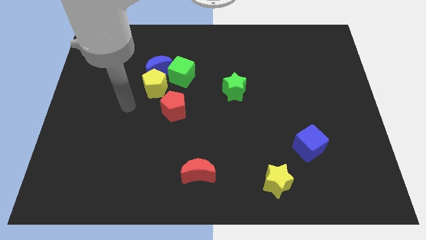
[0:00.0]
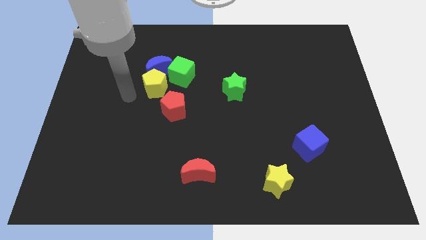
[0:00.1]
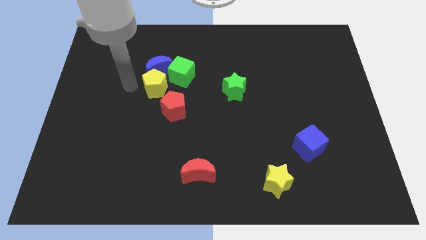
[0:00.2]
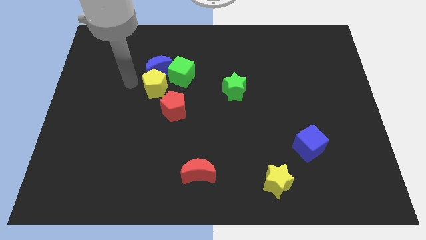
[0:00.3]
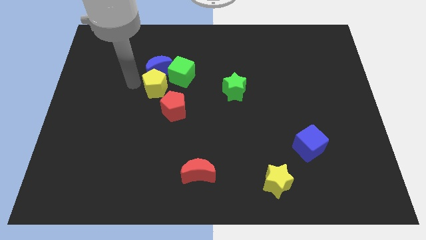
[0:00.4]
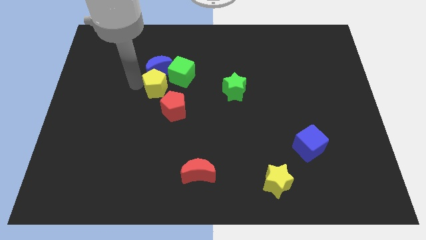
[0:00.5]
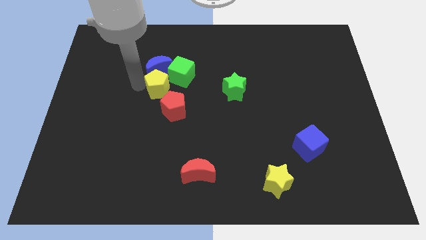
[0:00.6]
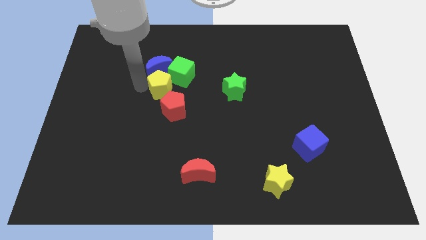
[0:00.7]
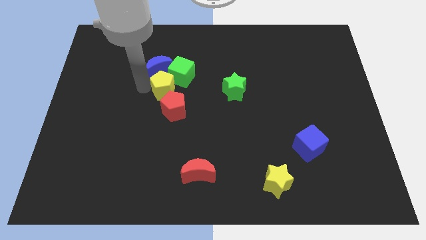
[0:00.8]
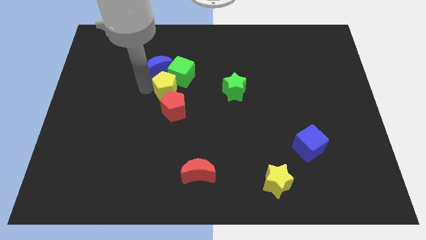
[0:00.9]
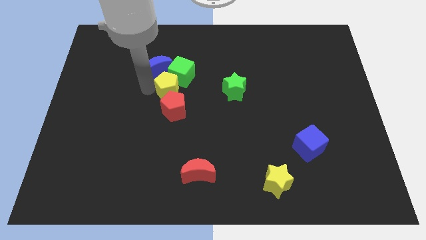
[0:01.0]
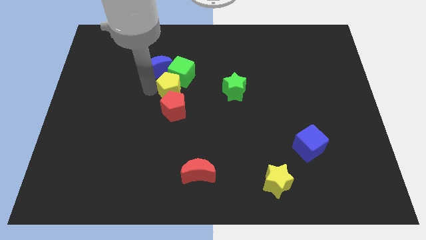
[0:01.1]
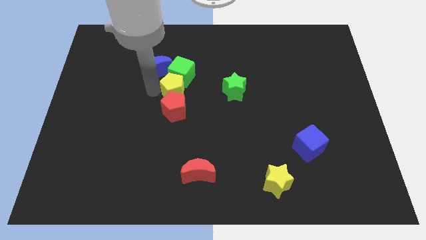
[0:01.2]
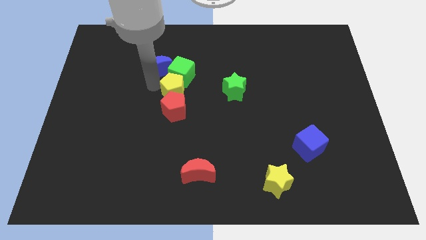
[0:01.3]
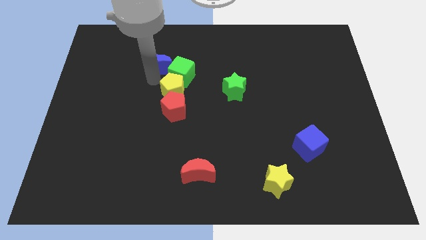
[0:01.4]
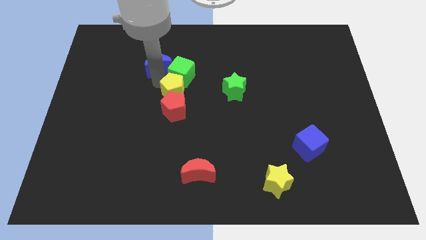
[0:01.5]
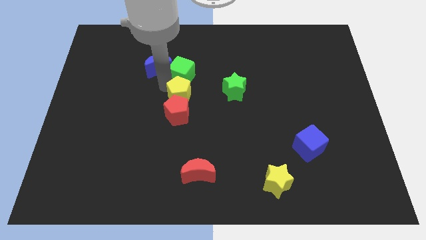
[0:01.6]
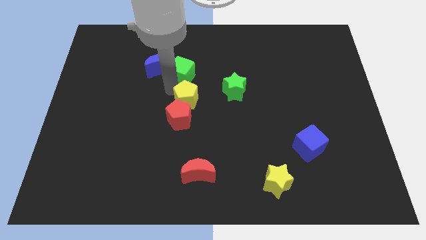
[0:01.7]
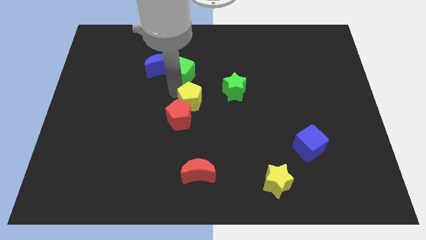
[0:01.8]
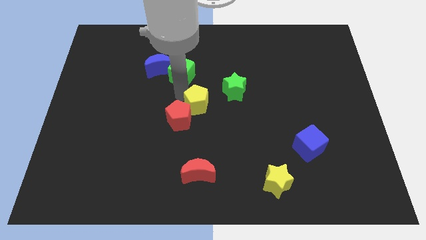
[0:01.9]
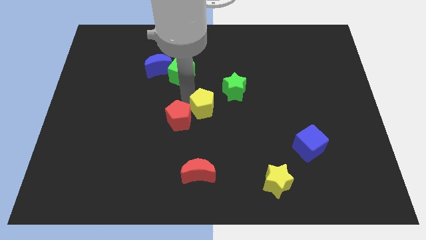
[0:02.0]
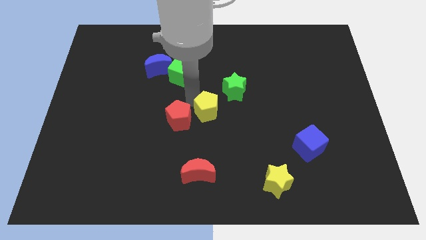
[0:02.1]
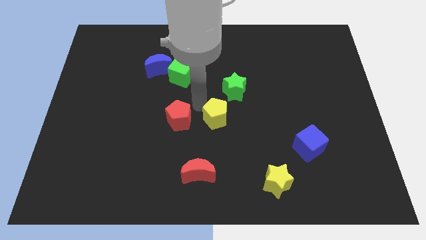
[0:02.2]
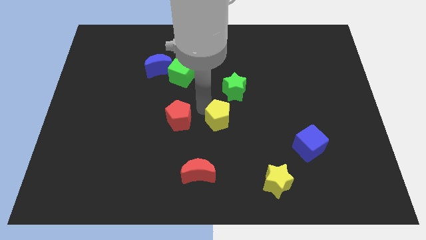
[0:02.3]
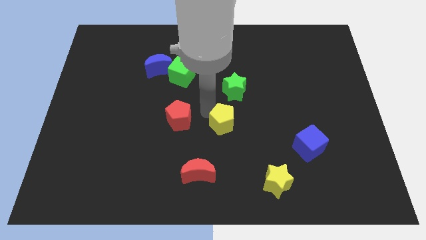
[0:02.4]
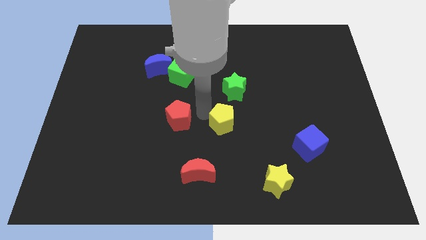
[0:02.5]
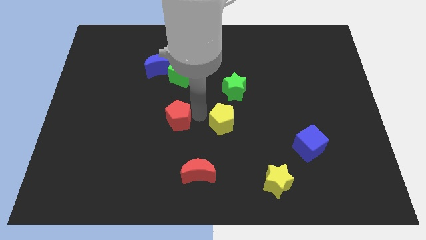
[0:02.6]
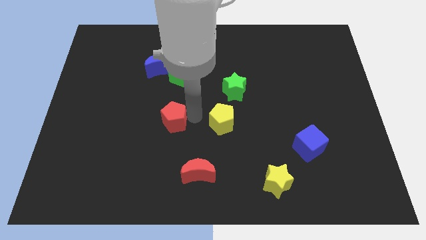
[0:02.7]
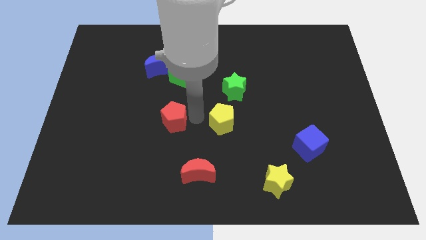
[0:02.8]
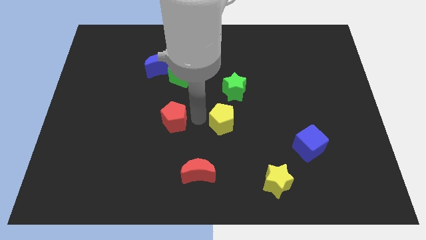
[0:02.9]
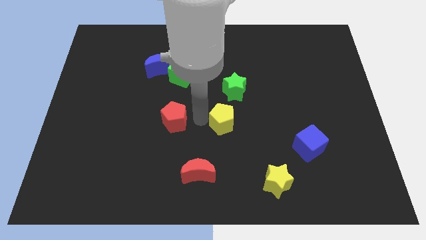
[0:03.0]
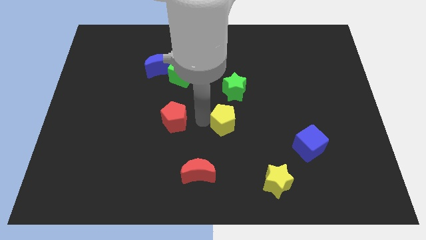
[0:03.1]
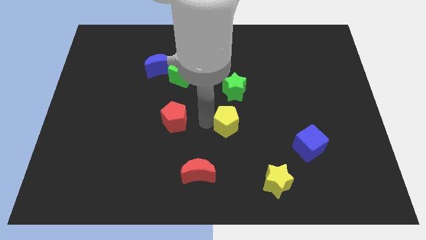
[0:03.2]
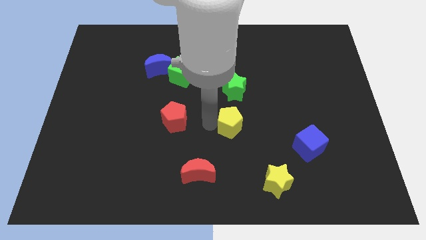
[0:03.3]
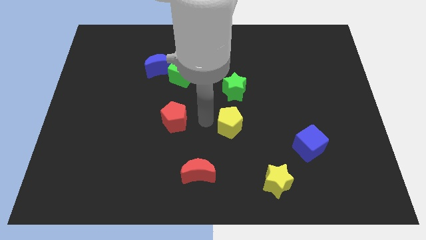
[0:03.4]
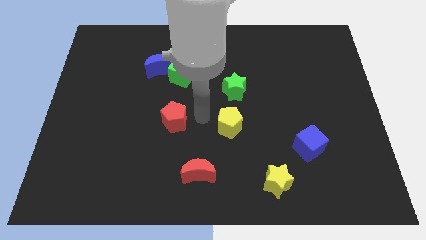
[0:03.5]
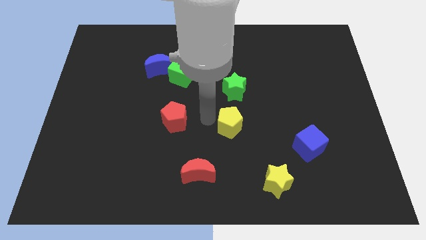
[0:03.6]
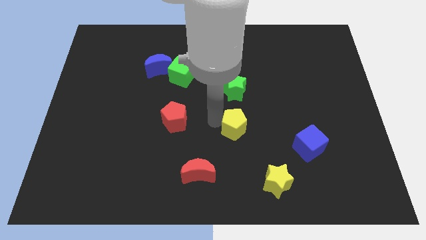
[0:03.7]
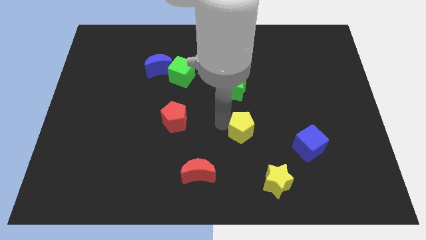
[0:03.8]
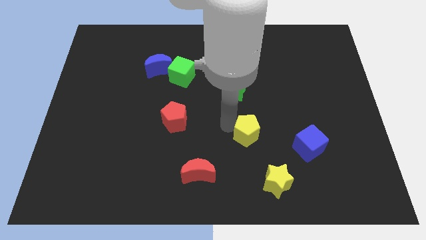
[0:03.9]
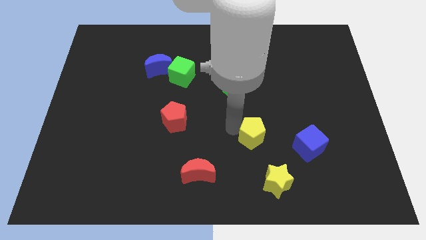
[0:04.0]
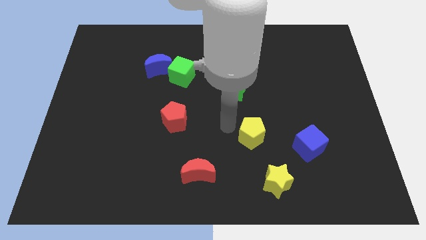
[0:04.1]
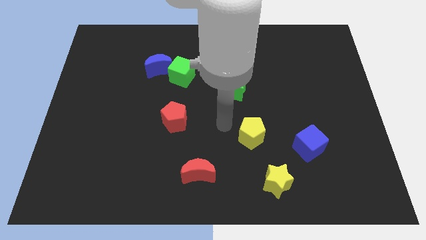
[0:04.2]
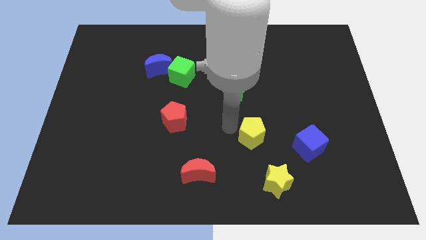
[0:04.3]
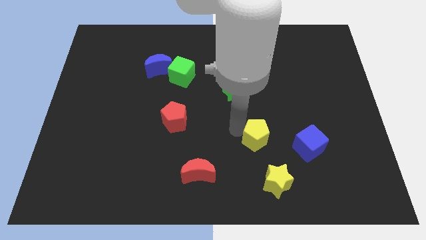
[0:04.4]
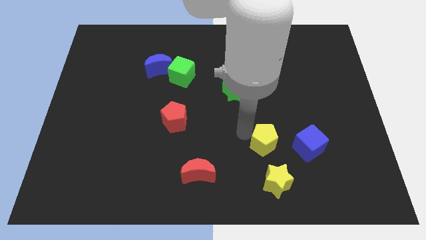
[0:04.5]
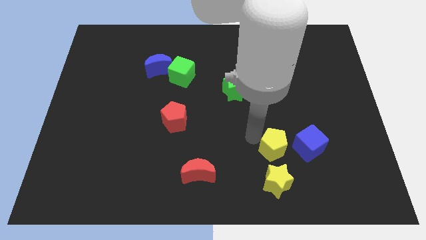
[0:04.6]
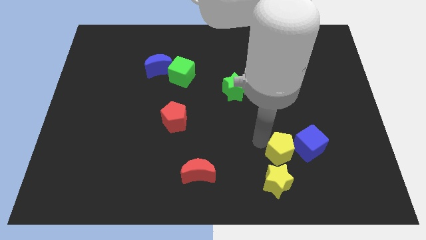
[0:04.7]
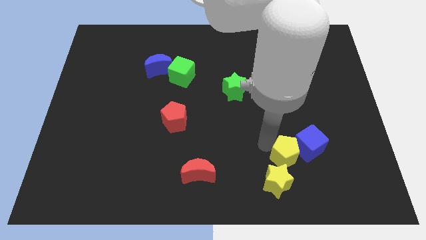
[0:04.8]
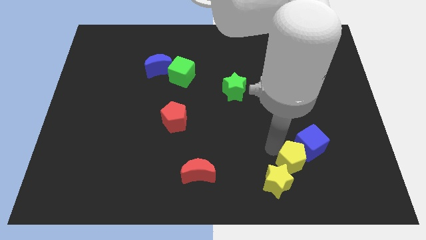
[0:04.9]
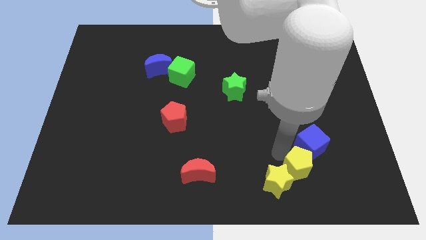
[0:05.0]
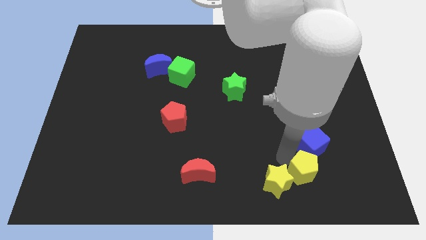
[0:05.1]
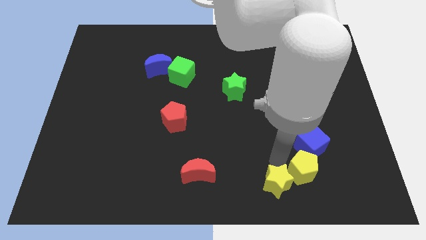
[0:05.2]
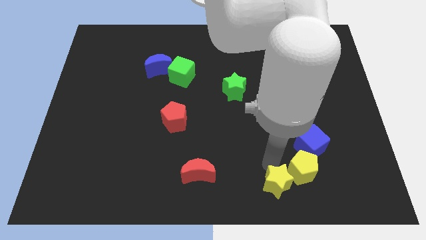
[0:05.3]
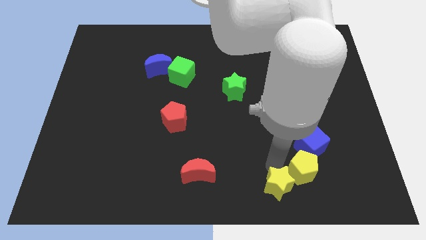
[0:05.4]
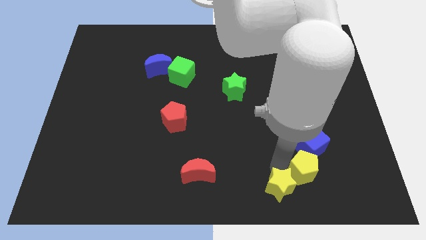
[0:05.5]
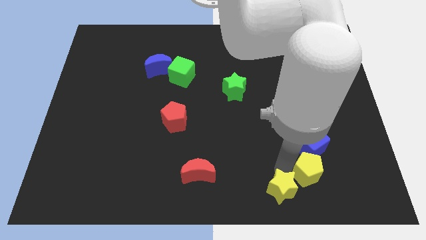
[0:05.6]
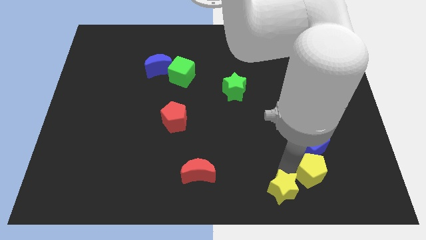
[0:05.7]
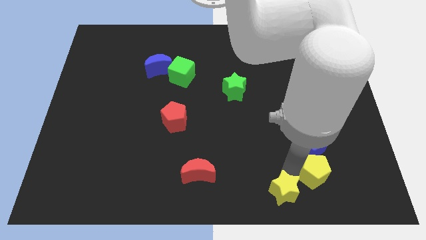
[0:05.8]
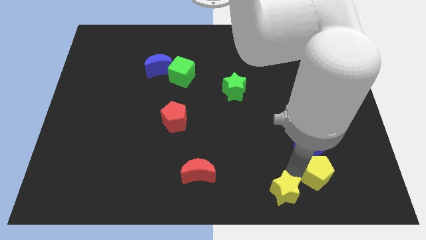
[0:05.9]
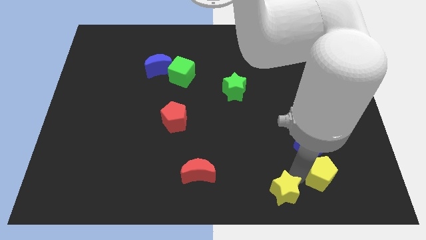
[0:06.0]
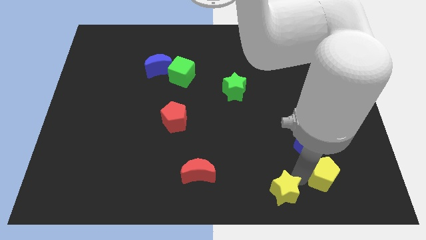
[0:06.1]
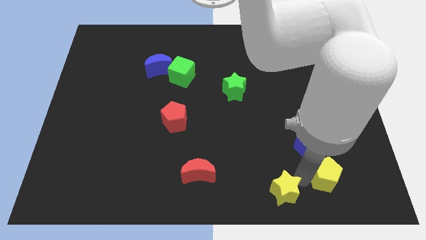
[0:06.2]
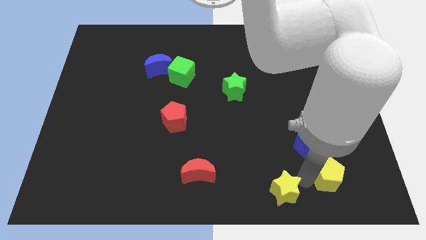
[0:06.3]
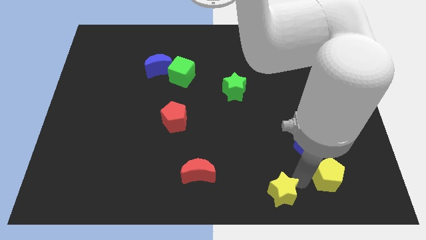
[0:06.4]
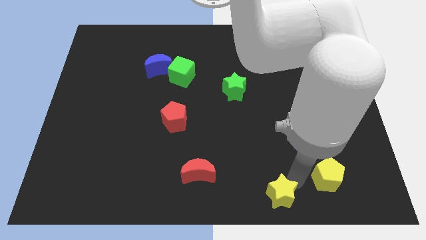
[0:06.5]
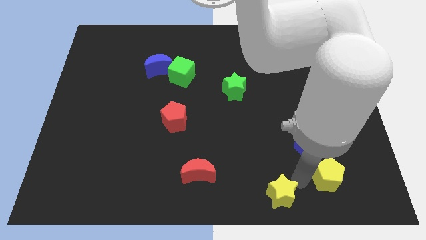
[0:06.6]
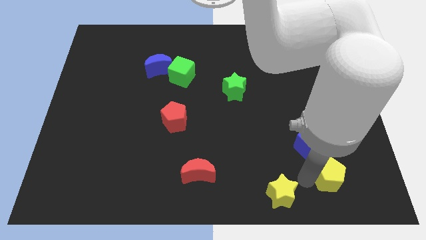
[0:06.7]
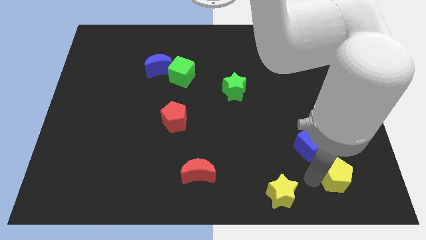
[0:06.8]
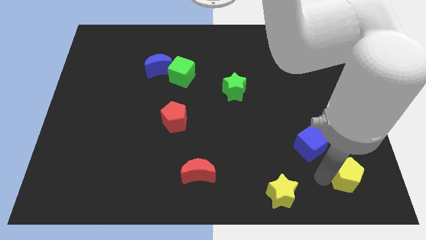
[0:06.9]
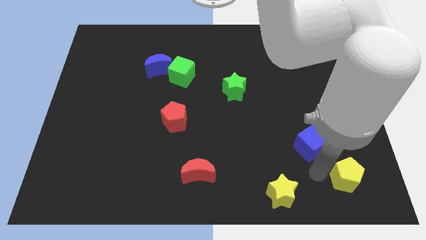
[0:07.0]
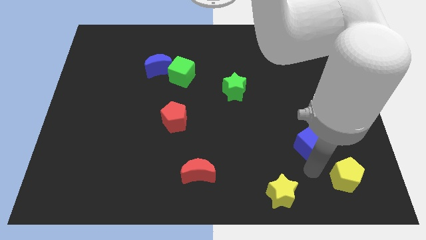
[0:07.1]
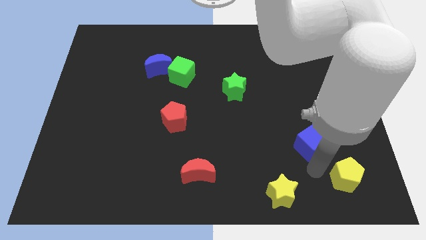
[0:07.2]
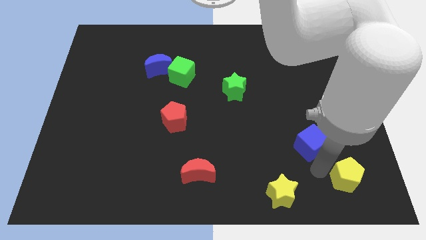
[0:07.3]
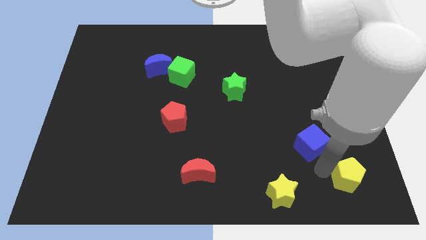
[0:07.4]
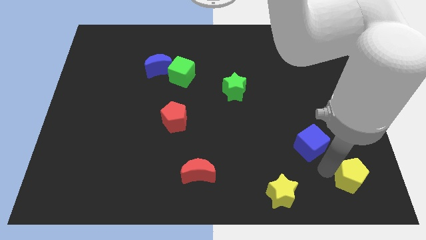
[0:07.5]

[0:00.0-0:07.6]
slide the yellow pentagon to the lower right corner
